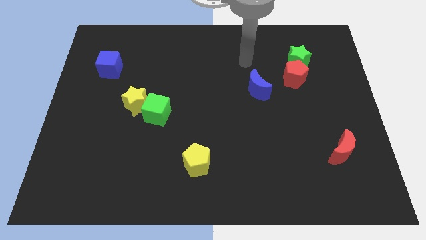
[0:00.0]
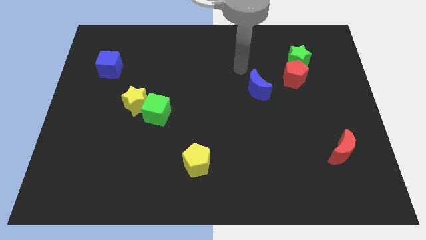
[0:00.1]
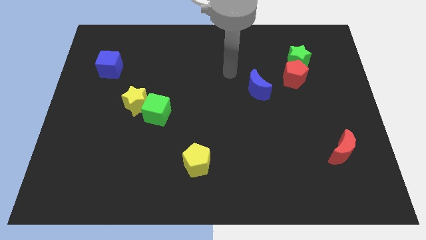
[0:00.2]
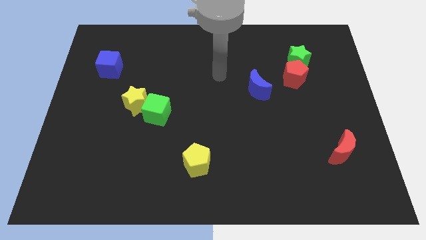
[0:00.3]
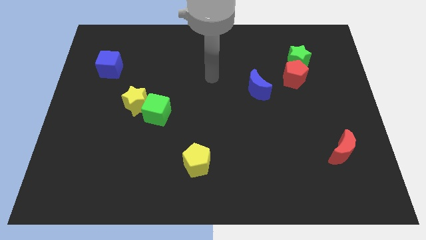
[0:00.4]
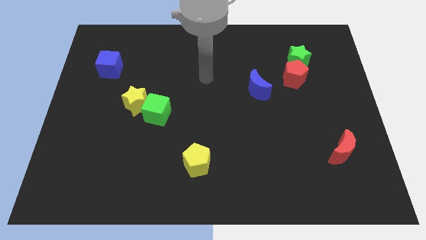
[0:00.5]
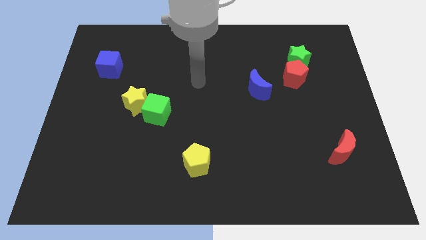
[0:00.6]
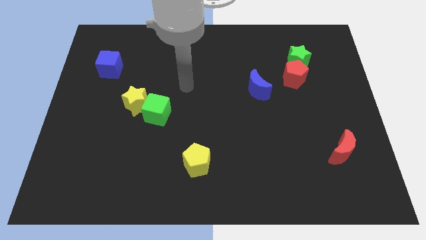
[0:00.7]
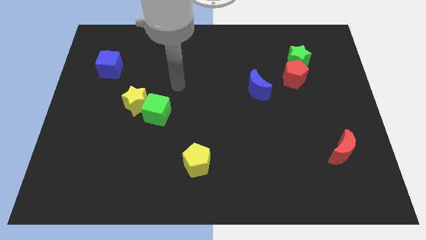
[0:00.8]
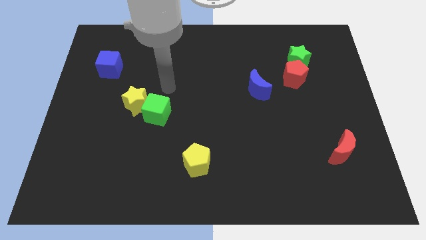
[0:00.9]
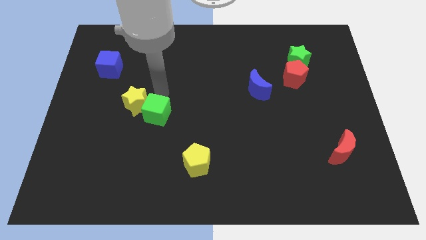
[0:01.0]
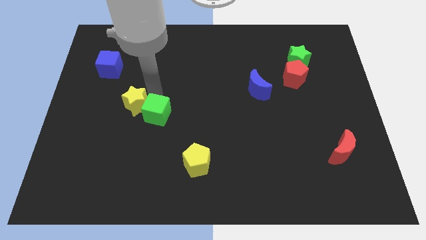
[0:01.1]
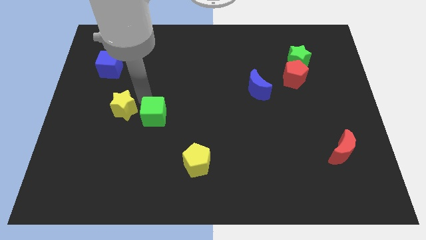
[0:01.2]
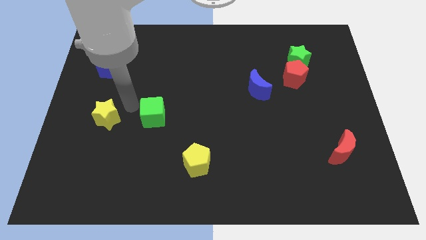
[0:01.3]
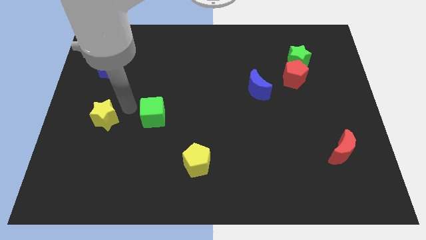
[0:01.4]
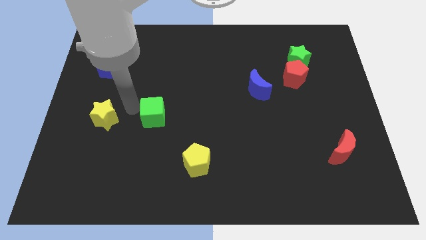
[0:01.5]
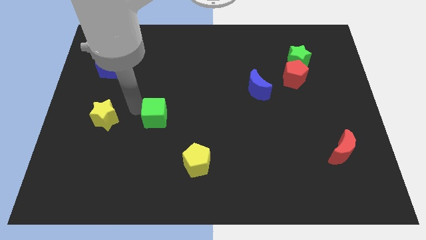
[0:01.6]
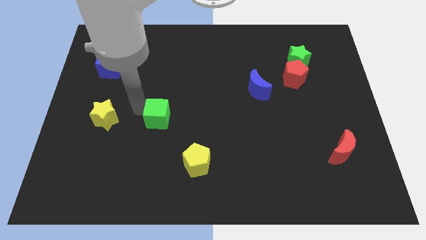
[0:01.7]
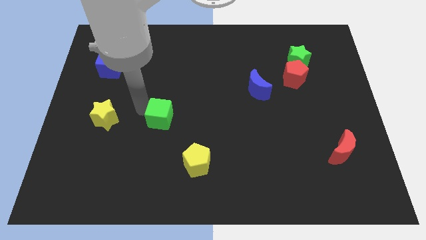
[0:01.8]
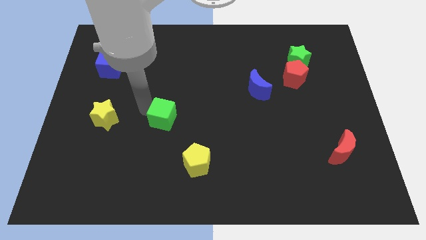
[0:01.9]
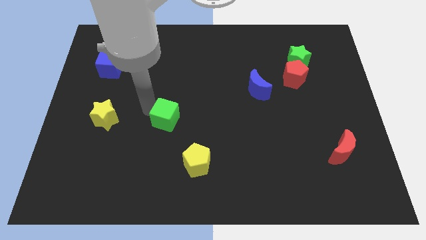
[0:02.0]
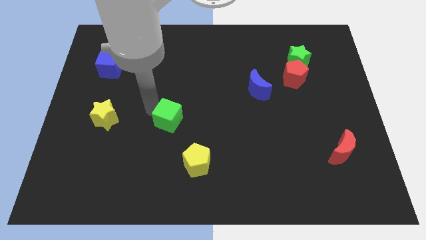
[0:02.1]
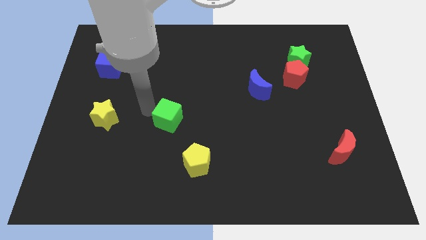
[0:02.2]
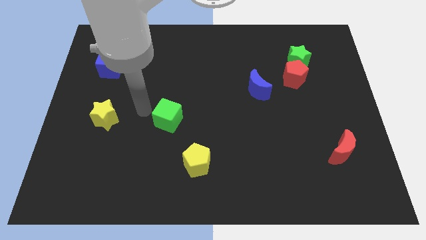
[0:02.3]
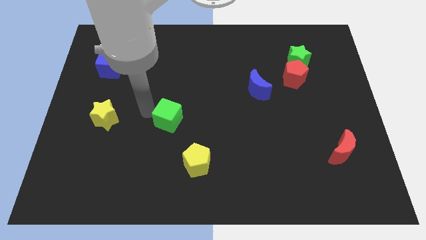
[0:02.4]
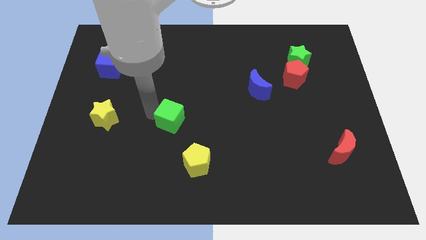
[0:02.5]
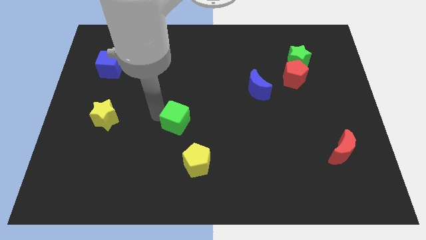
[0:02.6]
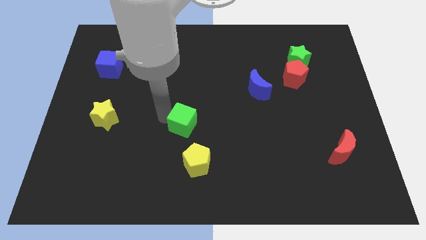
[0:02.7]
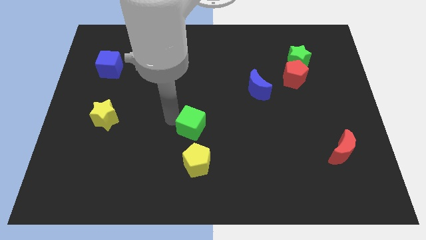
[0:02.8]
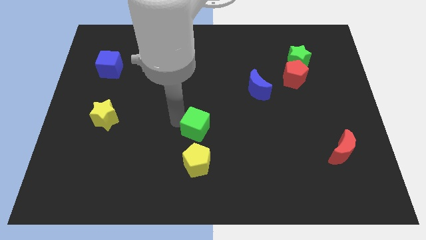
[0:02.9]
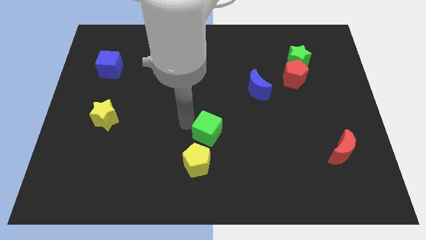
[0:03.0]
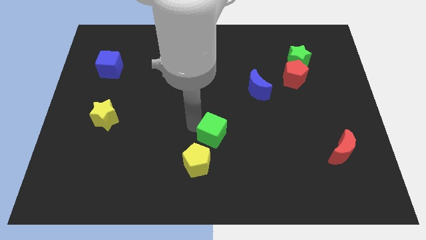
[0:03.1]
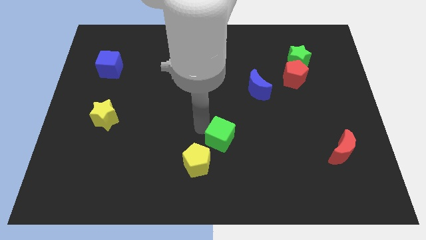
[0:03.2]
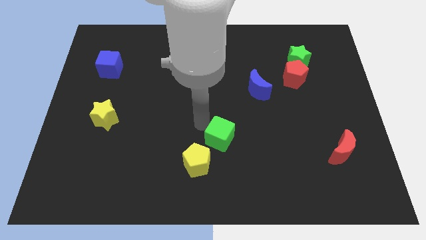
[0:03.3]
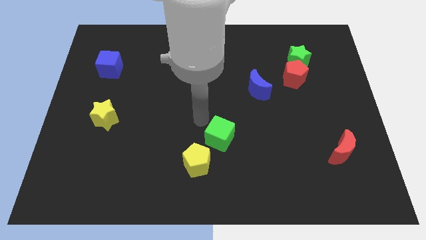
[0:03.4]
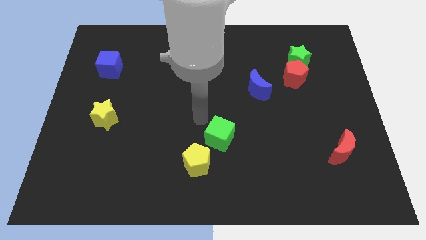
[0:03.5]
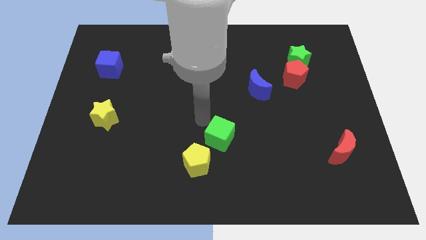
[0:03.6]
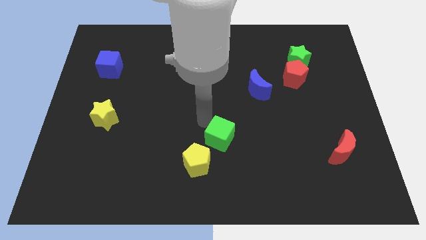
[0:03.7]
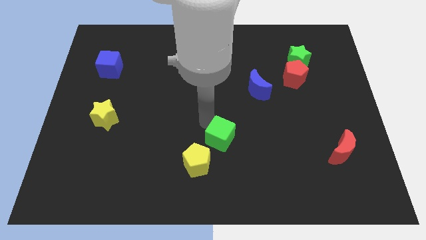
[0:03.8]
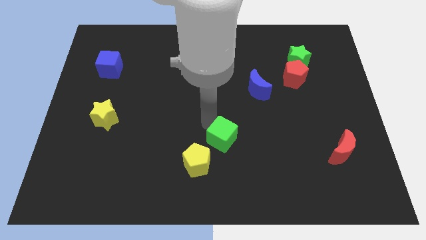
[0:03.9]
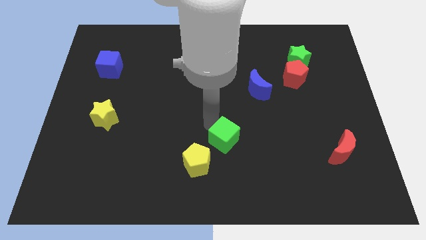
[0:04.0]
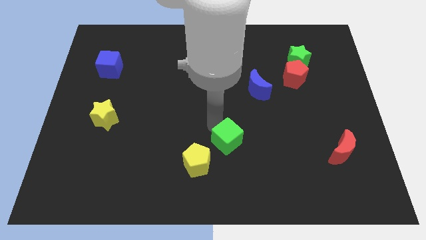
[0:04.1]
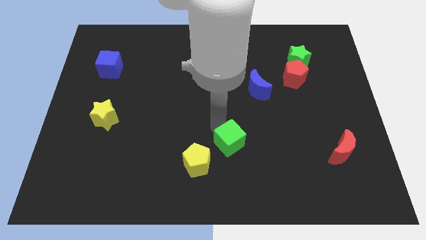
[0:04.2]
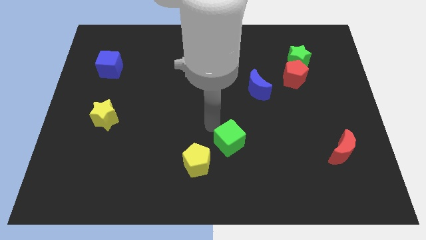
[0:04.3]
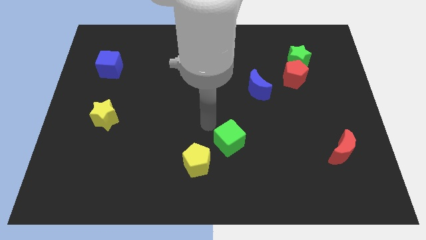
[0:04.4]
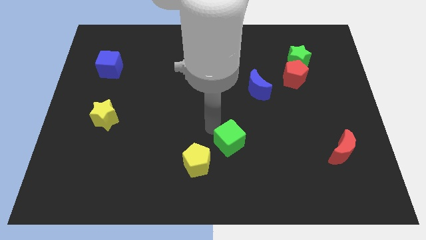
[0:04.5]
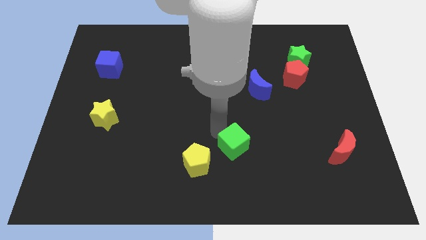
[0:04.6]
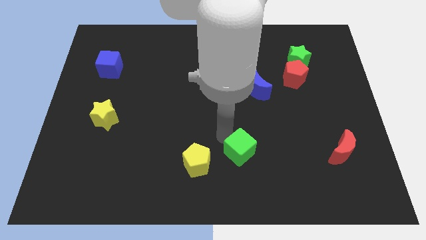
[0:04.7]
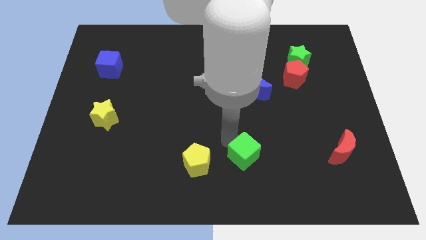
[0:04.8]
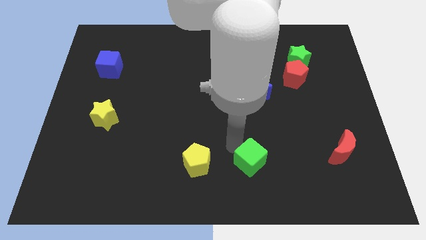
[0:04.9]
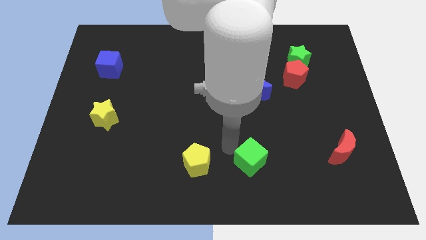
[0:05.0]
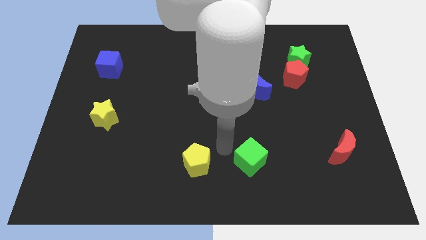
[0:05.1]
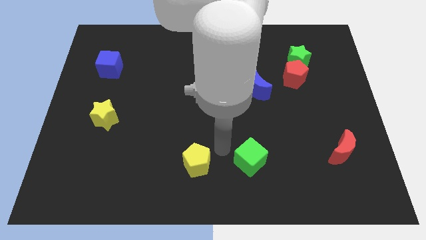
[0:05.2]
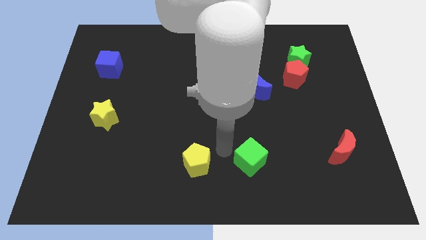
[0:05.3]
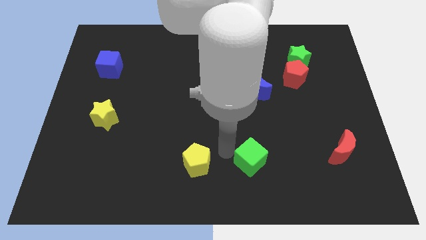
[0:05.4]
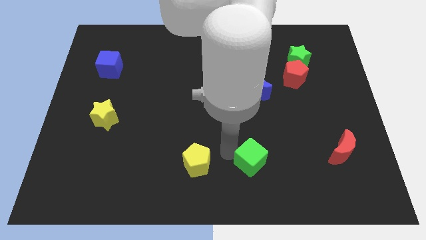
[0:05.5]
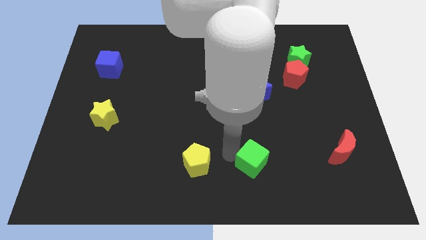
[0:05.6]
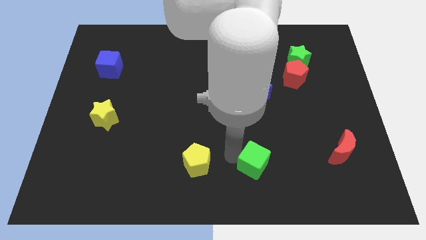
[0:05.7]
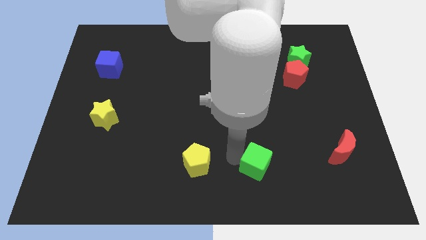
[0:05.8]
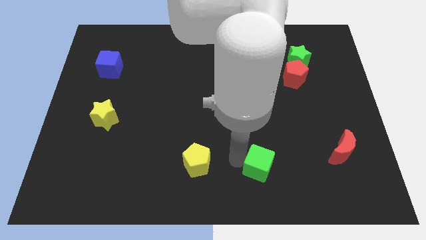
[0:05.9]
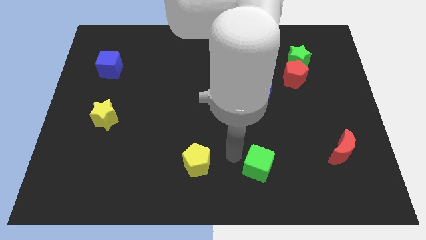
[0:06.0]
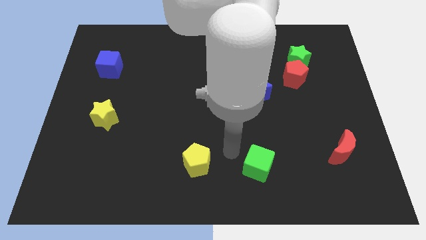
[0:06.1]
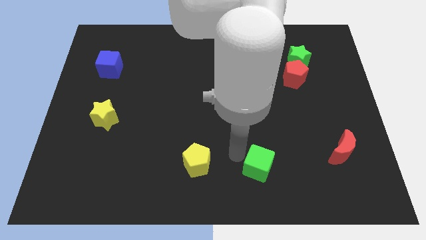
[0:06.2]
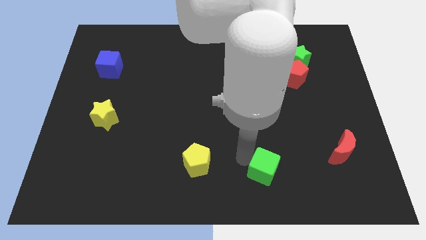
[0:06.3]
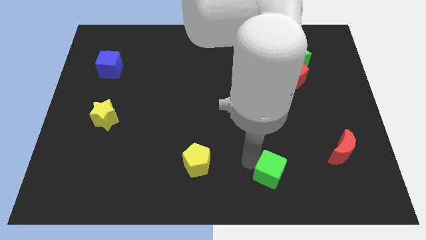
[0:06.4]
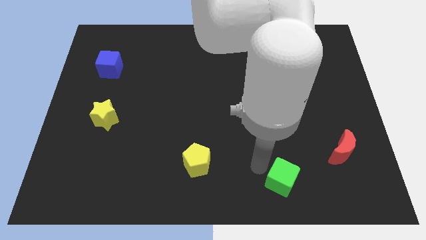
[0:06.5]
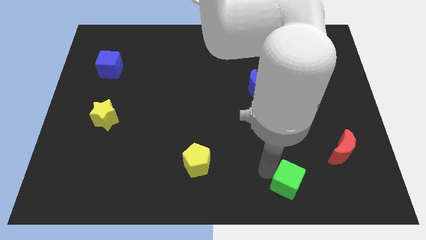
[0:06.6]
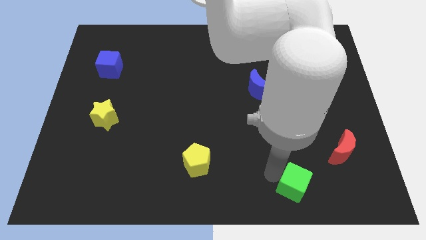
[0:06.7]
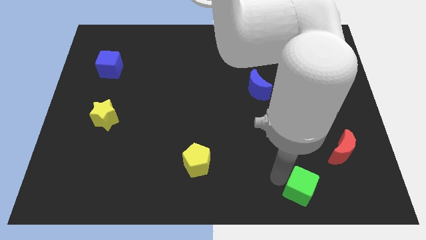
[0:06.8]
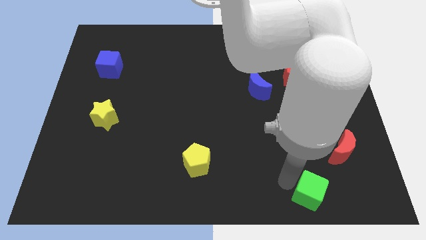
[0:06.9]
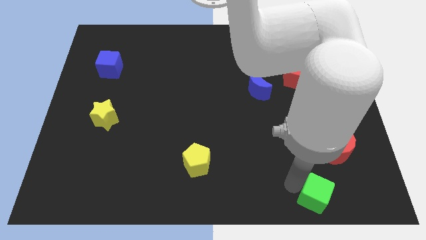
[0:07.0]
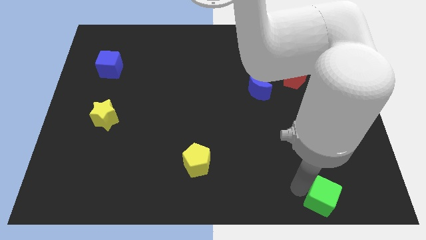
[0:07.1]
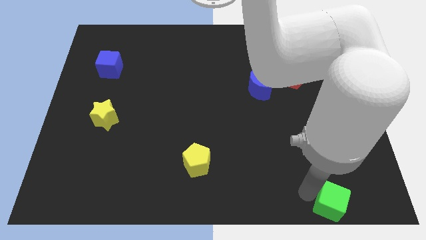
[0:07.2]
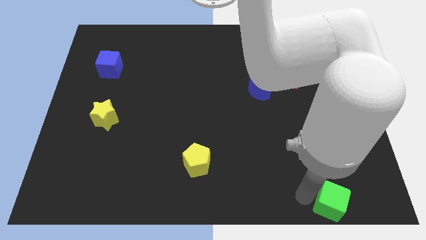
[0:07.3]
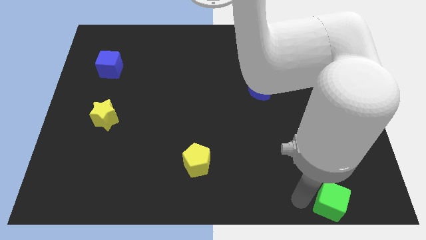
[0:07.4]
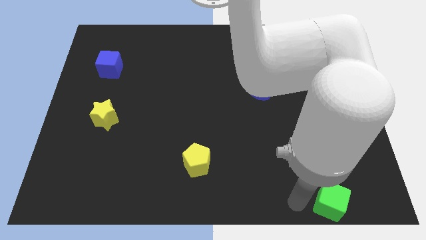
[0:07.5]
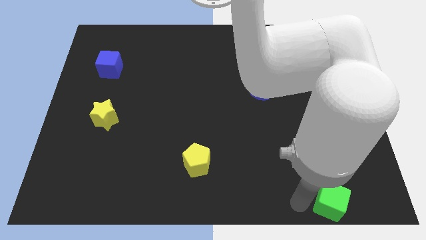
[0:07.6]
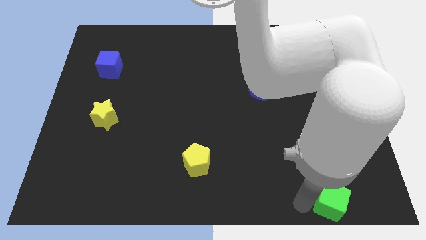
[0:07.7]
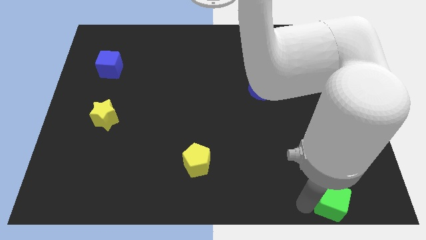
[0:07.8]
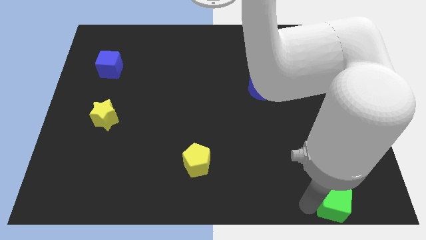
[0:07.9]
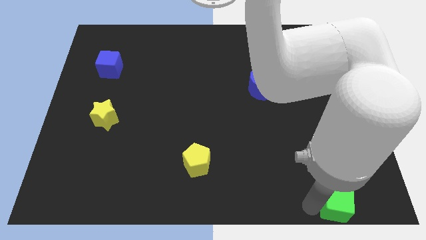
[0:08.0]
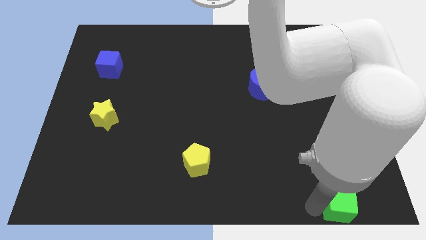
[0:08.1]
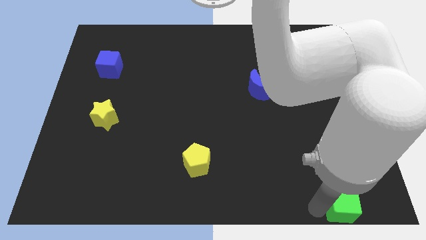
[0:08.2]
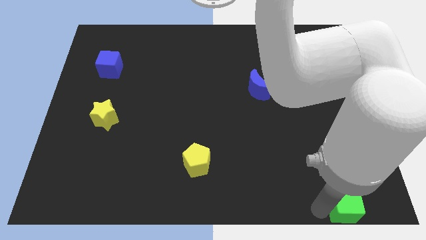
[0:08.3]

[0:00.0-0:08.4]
slide the green cube to the bottom right of the board
